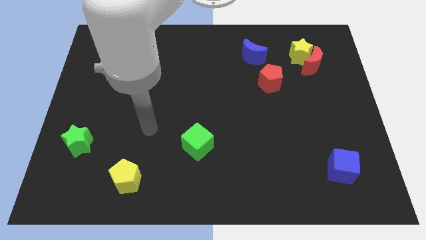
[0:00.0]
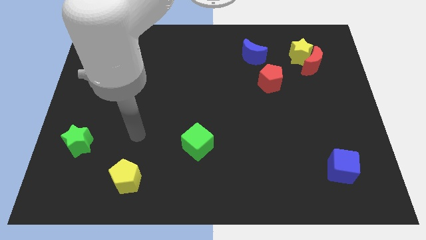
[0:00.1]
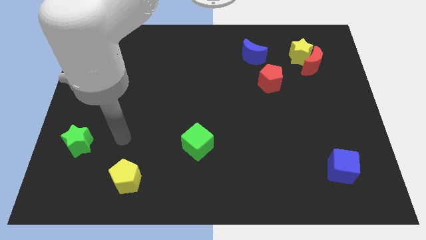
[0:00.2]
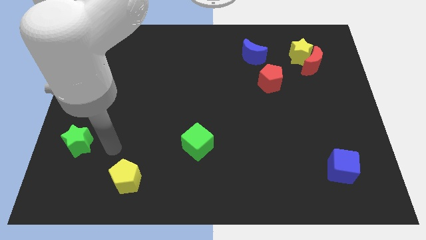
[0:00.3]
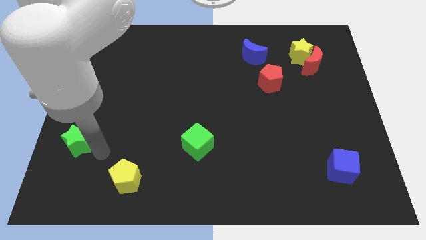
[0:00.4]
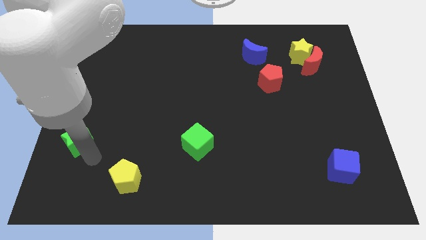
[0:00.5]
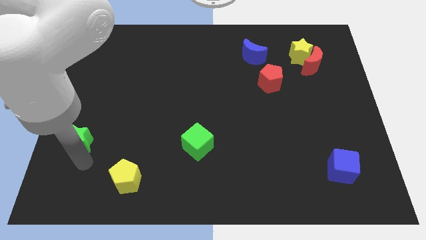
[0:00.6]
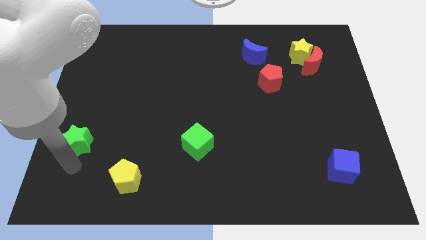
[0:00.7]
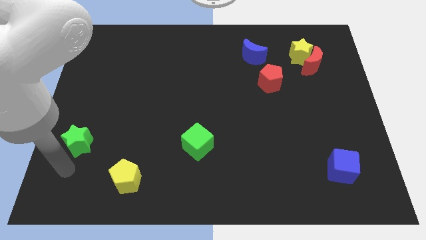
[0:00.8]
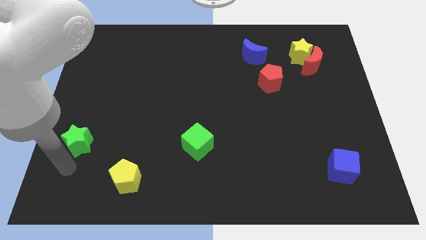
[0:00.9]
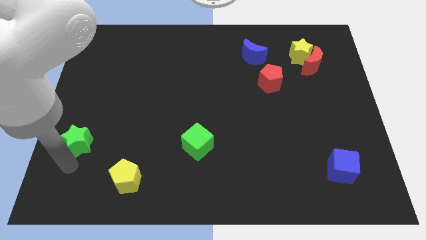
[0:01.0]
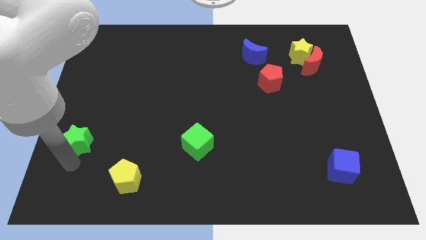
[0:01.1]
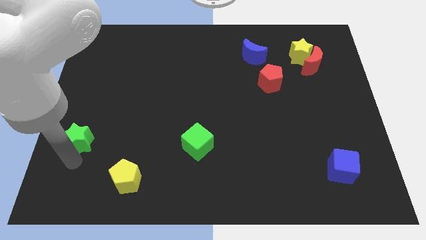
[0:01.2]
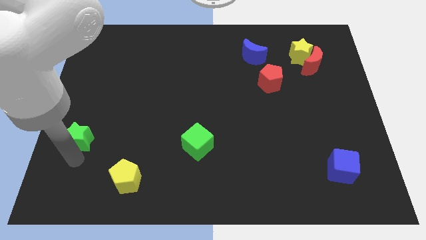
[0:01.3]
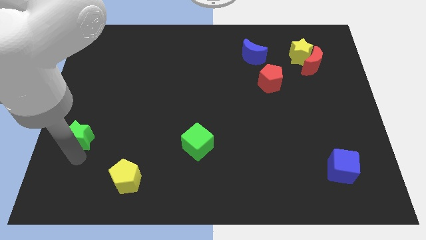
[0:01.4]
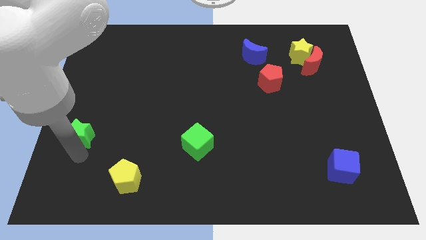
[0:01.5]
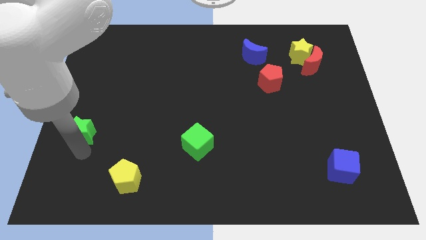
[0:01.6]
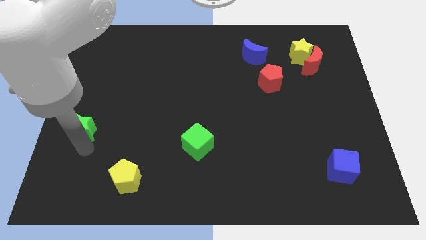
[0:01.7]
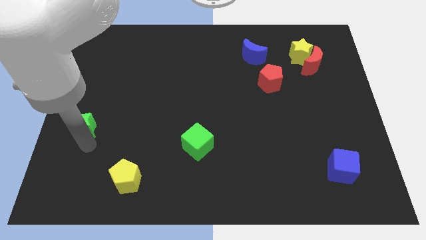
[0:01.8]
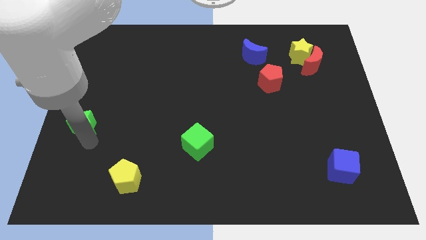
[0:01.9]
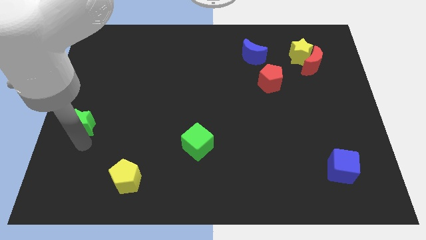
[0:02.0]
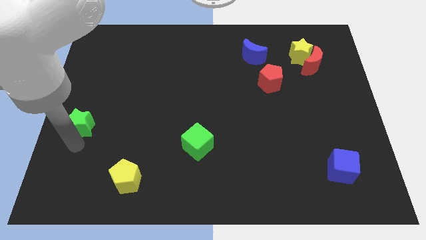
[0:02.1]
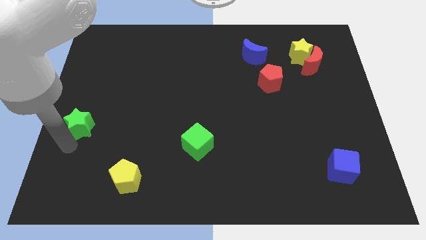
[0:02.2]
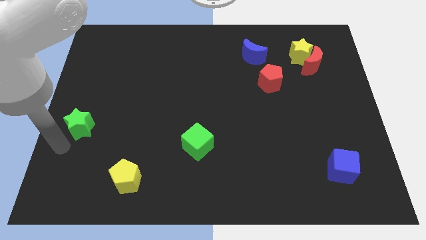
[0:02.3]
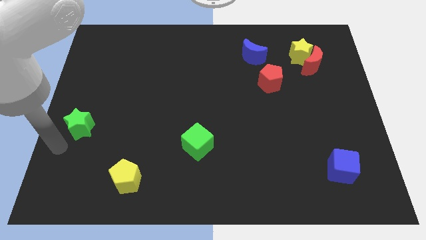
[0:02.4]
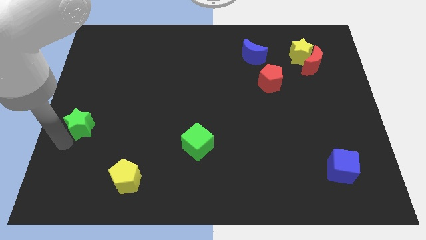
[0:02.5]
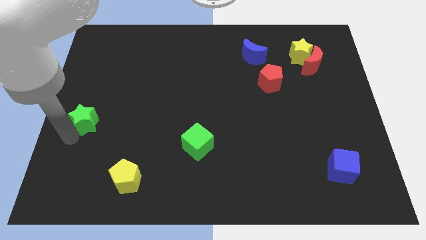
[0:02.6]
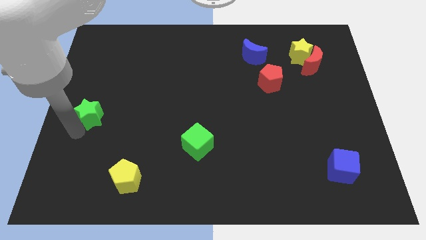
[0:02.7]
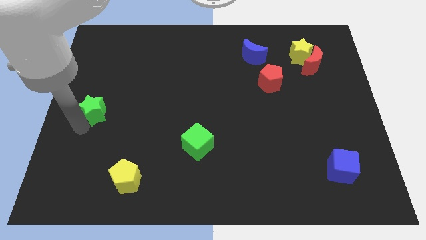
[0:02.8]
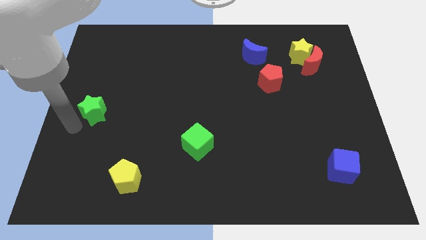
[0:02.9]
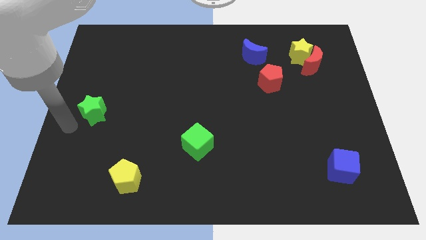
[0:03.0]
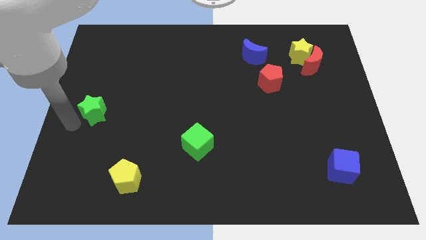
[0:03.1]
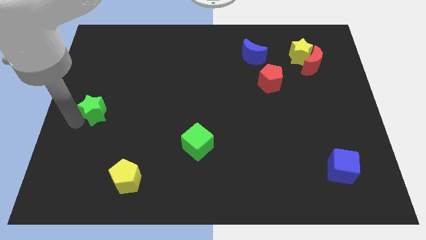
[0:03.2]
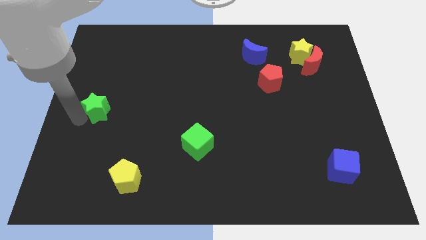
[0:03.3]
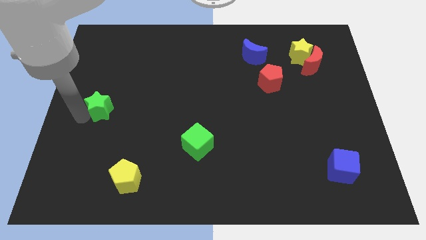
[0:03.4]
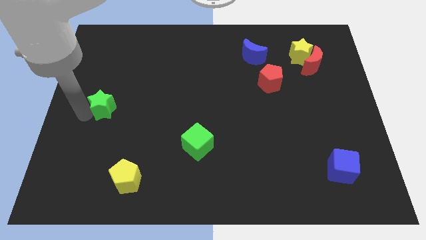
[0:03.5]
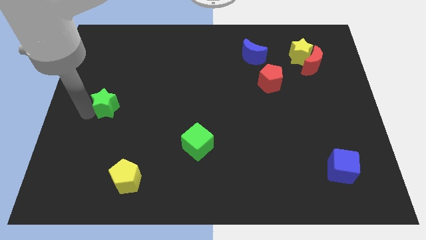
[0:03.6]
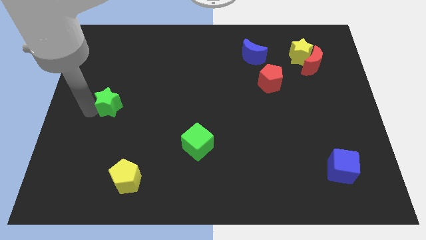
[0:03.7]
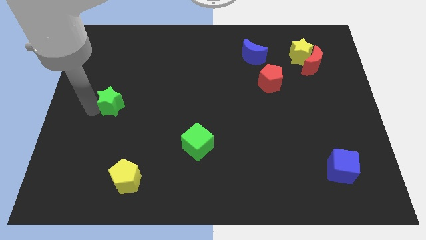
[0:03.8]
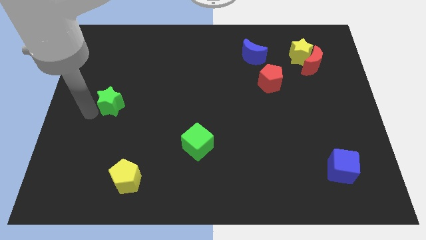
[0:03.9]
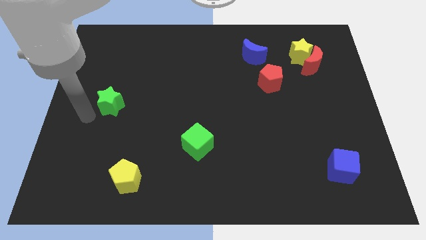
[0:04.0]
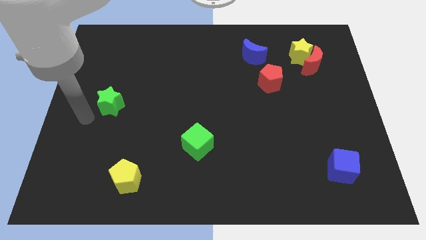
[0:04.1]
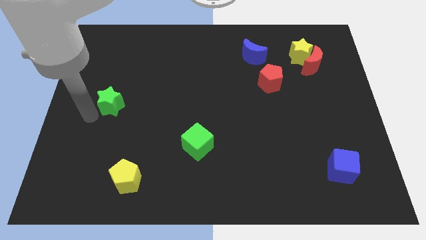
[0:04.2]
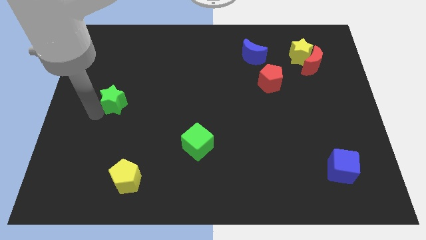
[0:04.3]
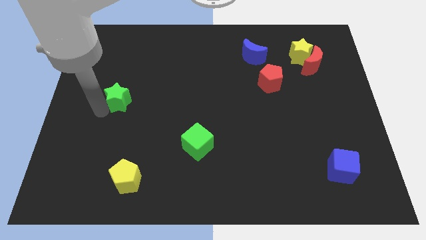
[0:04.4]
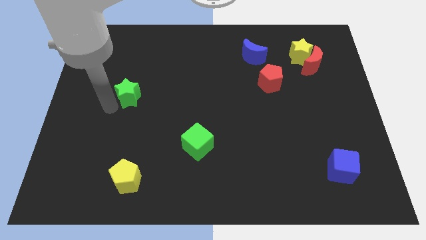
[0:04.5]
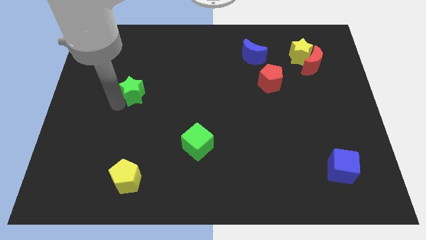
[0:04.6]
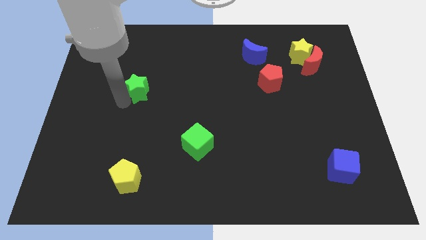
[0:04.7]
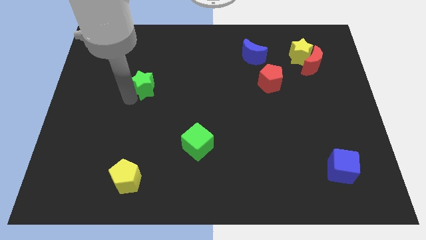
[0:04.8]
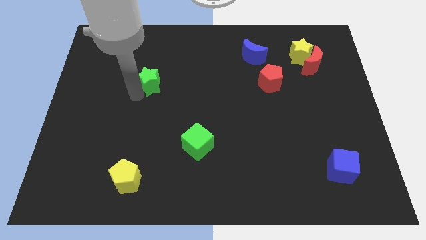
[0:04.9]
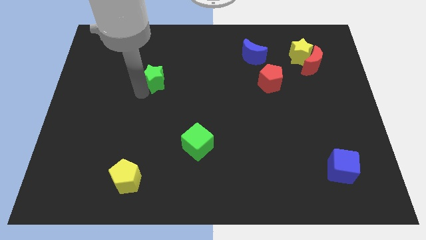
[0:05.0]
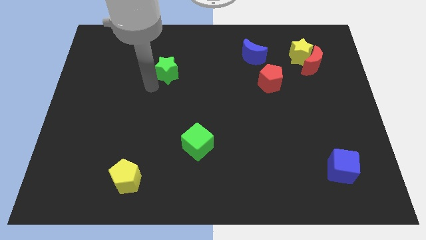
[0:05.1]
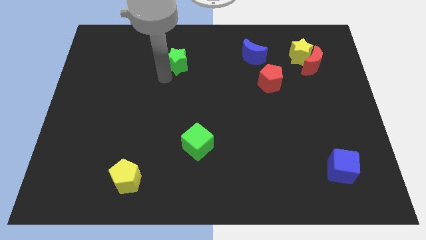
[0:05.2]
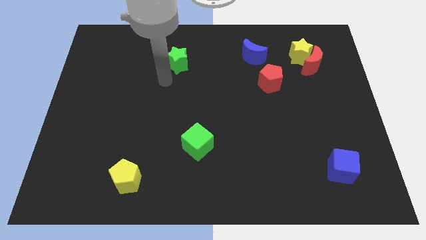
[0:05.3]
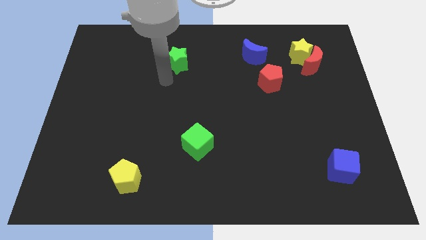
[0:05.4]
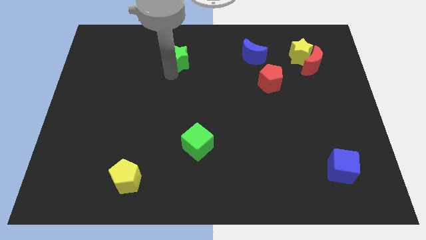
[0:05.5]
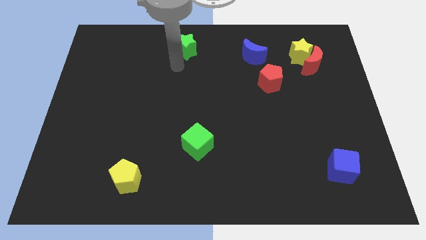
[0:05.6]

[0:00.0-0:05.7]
push the green star to the top
